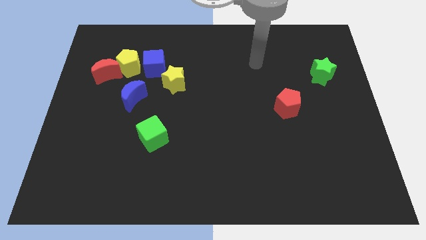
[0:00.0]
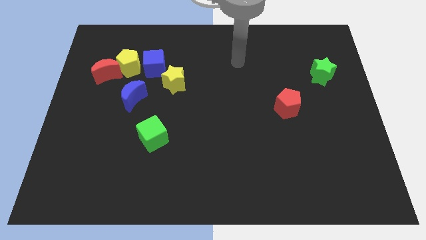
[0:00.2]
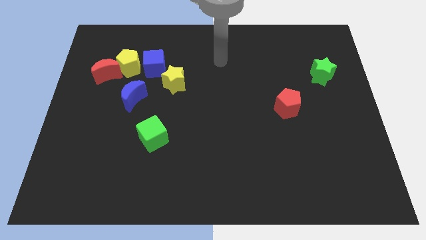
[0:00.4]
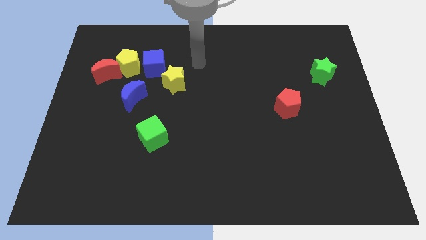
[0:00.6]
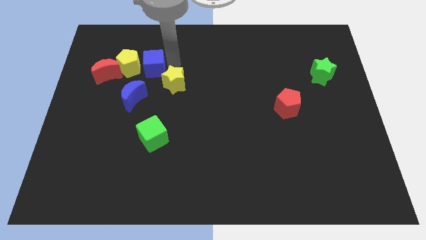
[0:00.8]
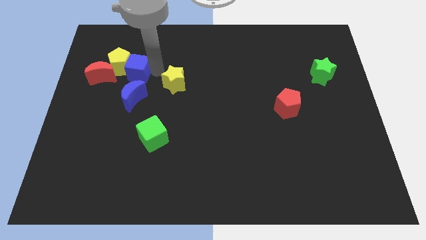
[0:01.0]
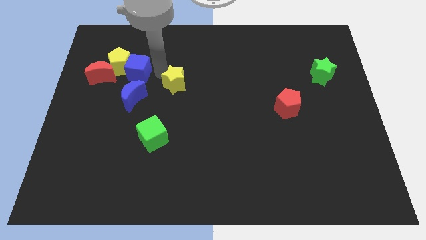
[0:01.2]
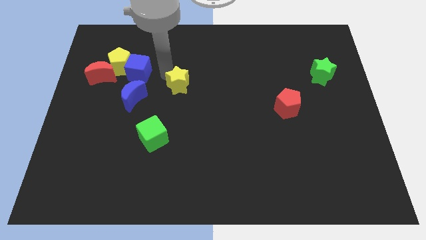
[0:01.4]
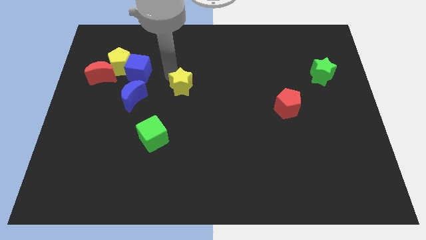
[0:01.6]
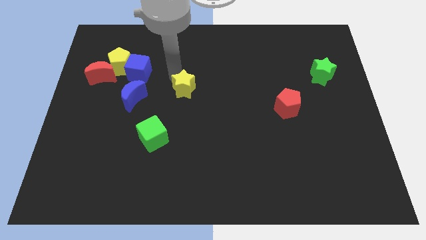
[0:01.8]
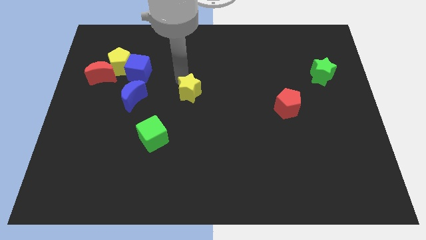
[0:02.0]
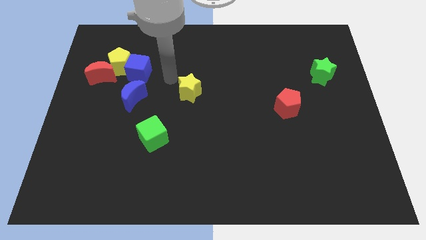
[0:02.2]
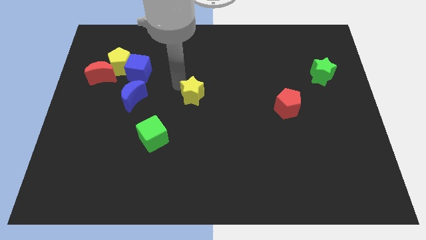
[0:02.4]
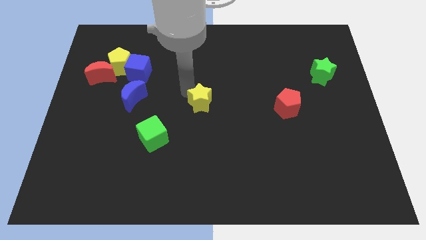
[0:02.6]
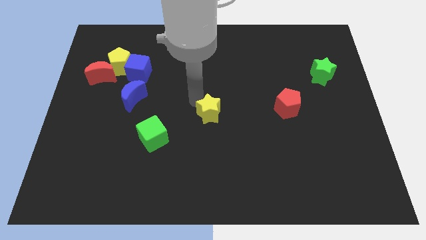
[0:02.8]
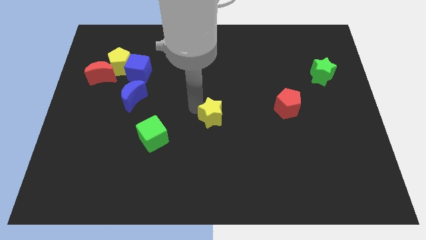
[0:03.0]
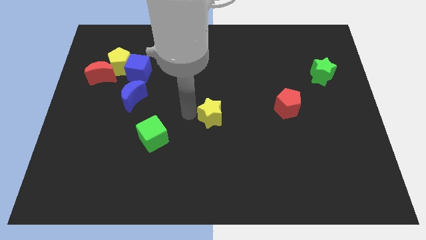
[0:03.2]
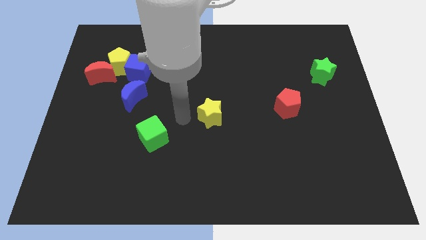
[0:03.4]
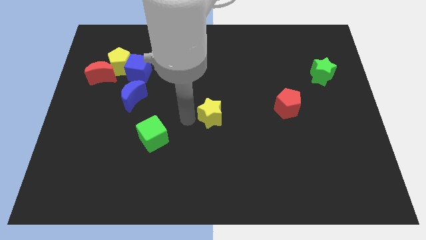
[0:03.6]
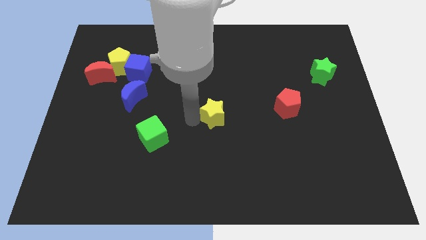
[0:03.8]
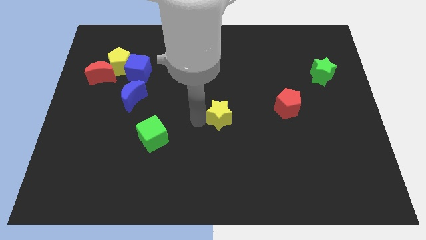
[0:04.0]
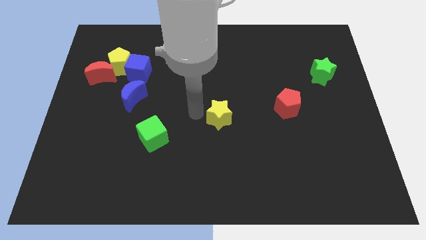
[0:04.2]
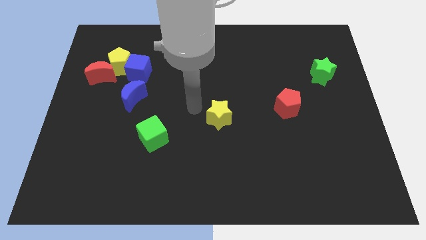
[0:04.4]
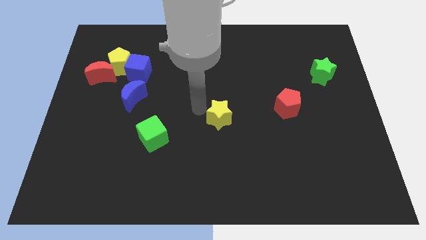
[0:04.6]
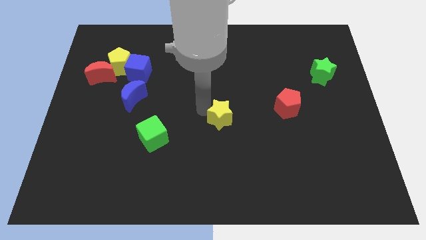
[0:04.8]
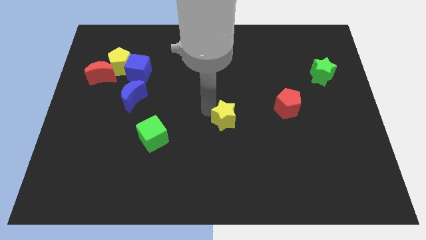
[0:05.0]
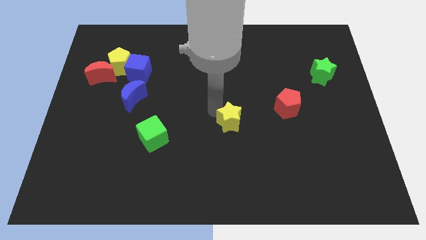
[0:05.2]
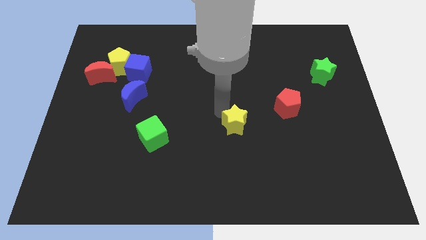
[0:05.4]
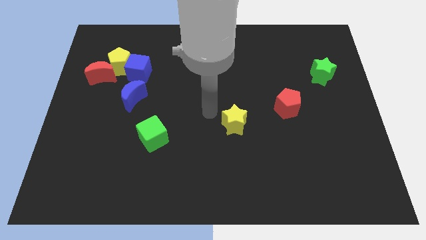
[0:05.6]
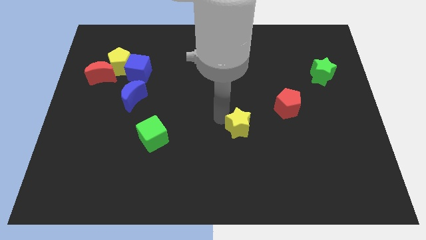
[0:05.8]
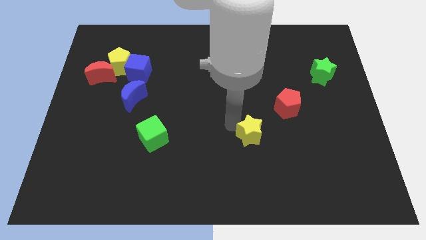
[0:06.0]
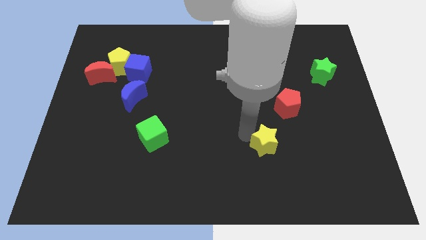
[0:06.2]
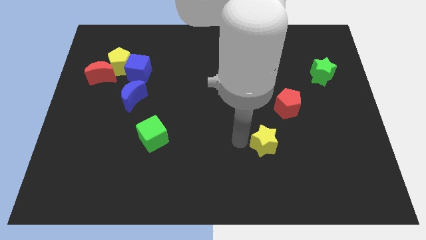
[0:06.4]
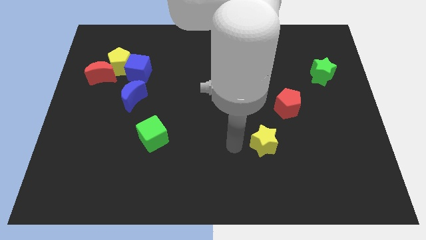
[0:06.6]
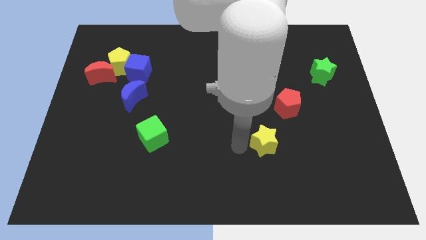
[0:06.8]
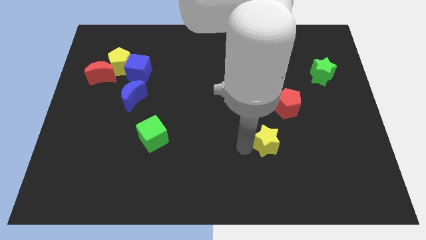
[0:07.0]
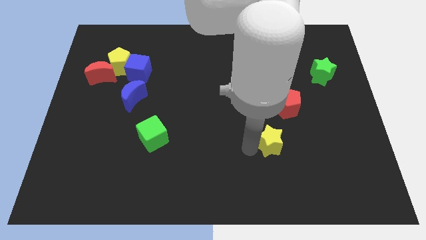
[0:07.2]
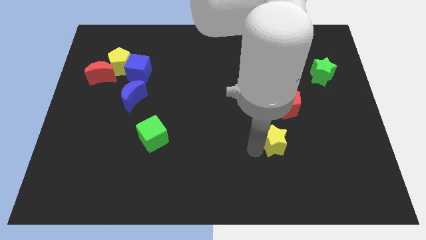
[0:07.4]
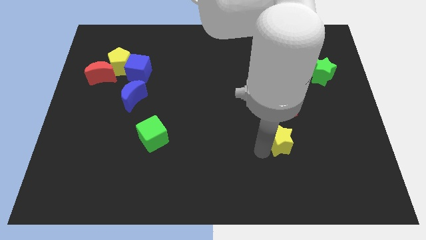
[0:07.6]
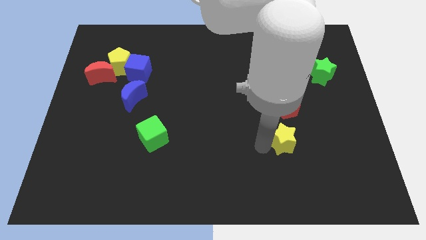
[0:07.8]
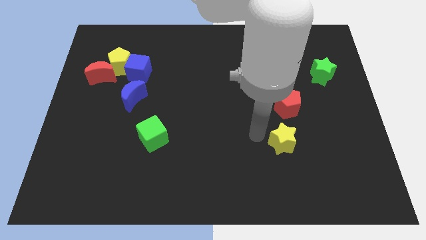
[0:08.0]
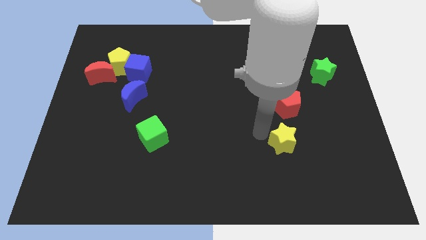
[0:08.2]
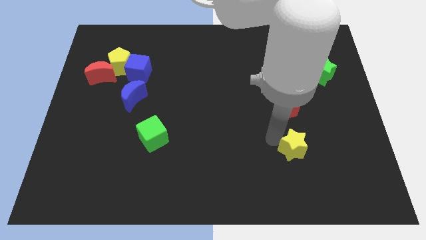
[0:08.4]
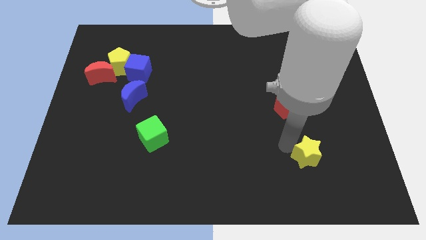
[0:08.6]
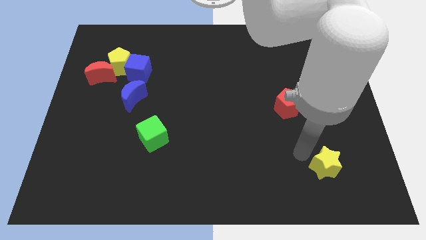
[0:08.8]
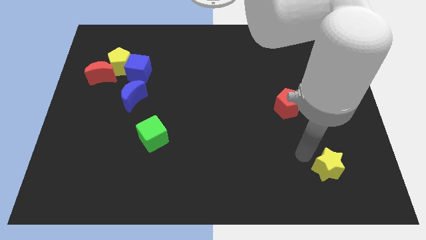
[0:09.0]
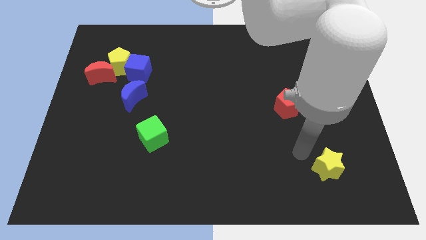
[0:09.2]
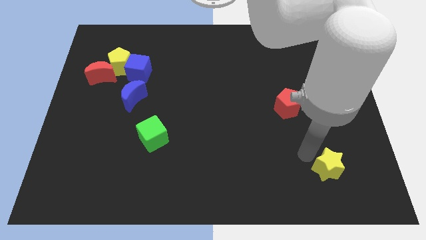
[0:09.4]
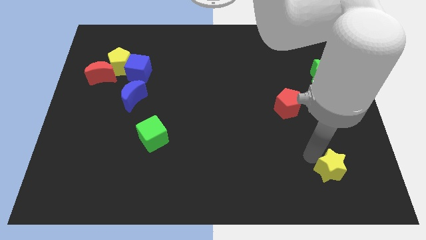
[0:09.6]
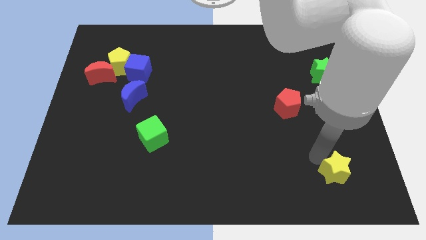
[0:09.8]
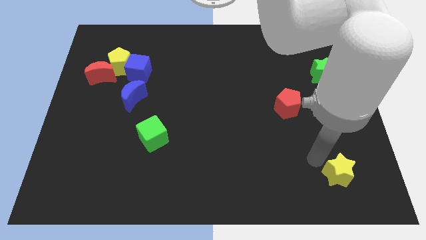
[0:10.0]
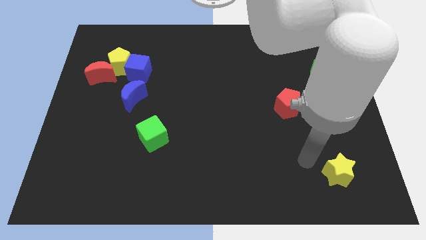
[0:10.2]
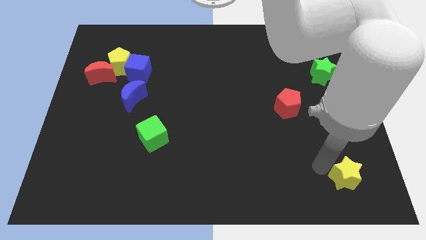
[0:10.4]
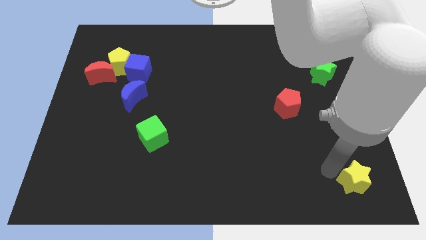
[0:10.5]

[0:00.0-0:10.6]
push the yellow star to the bottom right of the board
